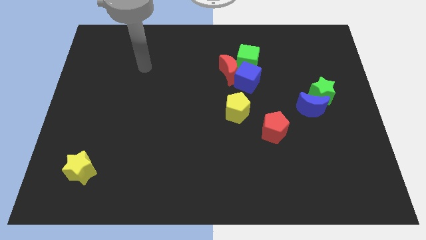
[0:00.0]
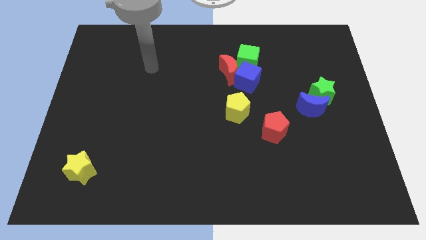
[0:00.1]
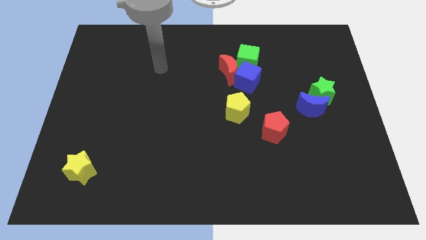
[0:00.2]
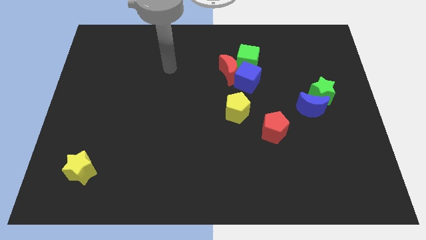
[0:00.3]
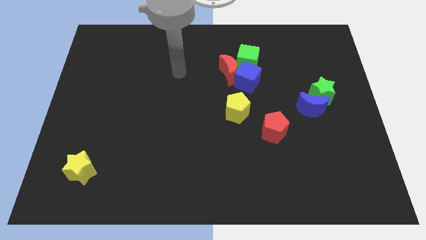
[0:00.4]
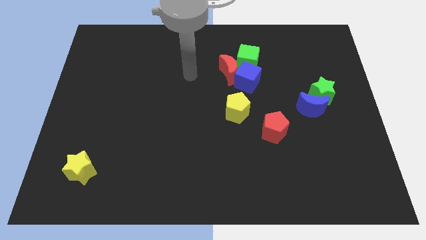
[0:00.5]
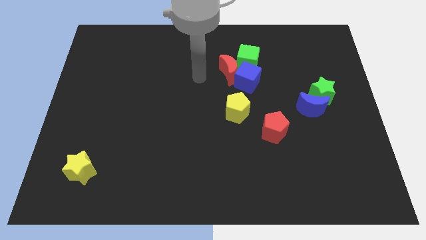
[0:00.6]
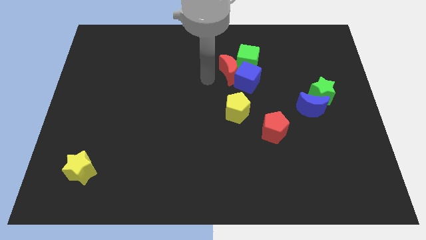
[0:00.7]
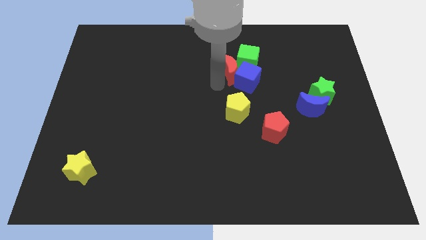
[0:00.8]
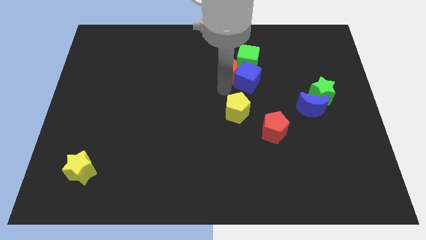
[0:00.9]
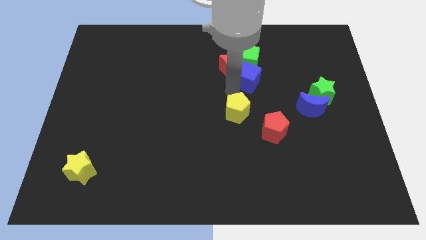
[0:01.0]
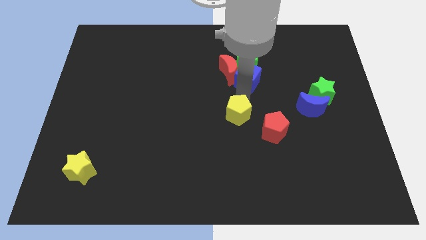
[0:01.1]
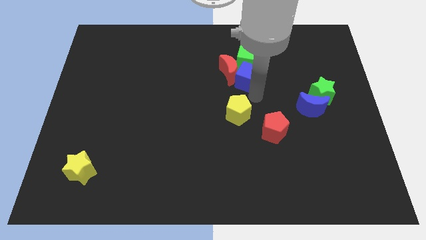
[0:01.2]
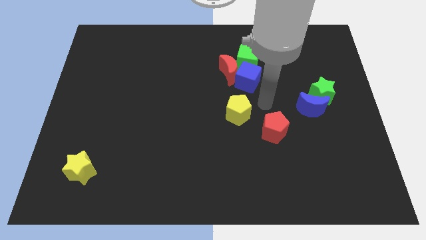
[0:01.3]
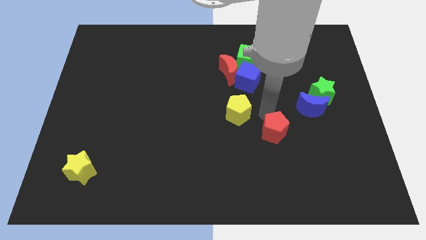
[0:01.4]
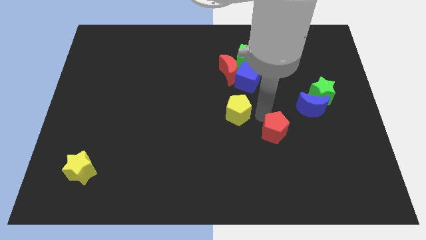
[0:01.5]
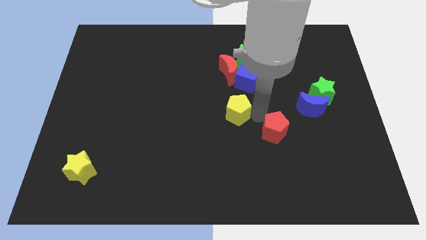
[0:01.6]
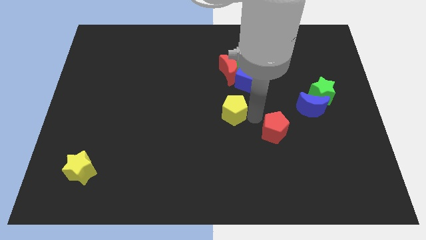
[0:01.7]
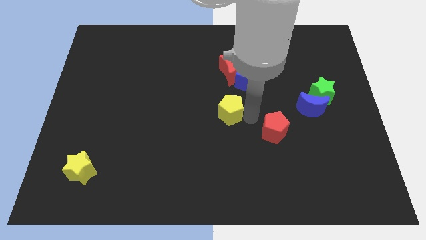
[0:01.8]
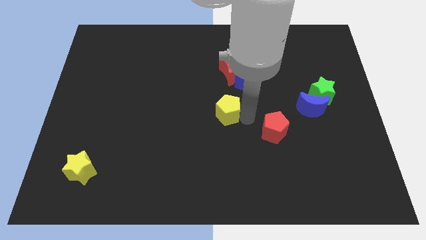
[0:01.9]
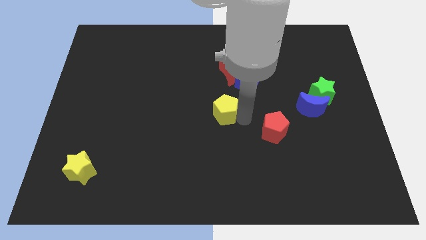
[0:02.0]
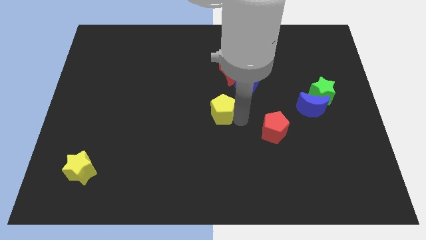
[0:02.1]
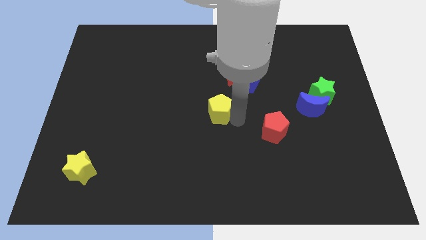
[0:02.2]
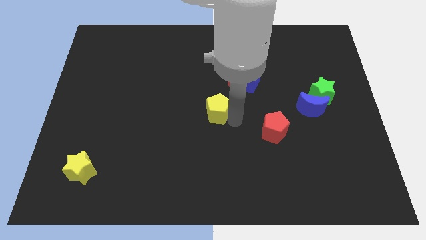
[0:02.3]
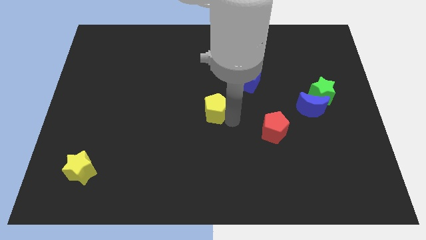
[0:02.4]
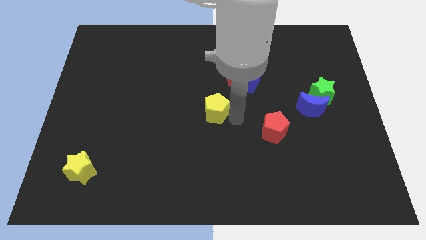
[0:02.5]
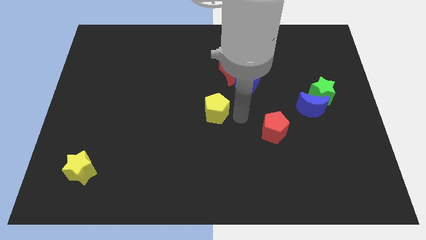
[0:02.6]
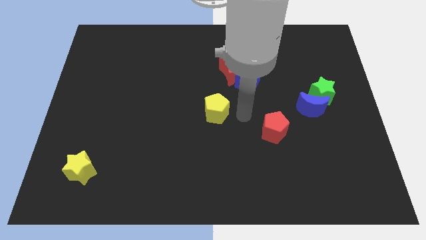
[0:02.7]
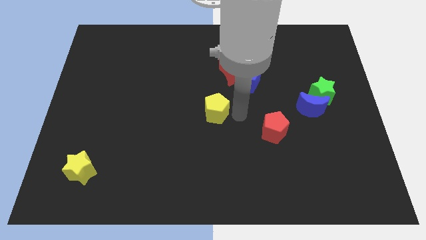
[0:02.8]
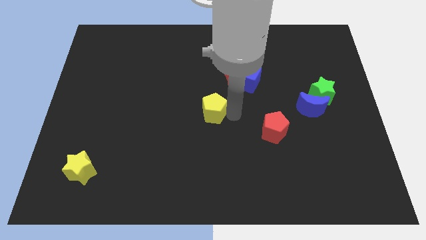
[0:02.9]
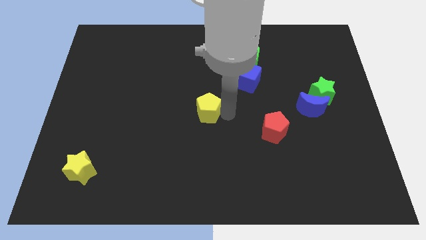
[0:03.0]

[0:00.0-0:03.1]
move the yellow pentagon to the left a little

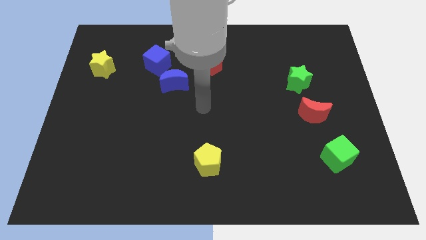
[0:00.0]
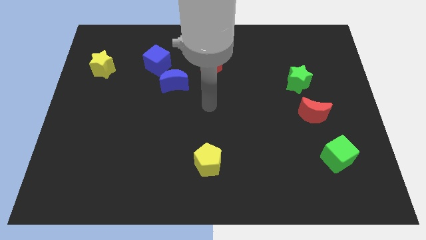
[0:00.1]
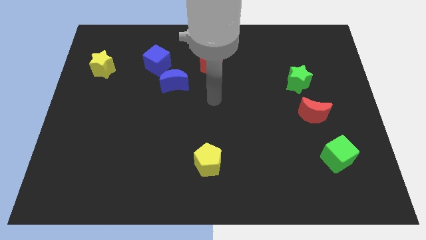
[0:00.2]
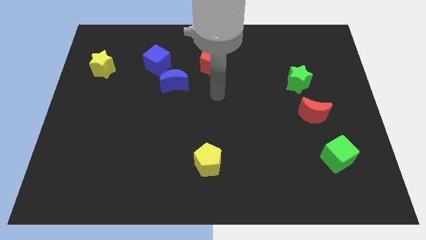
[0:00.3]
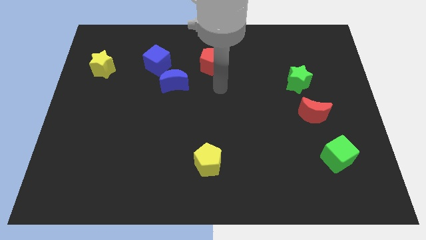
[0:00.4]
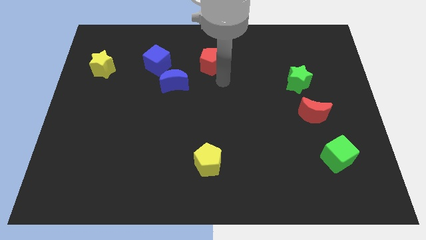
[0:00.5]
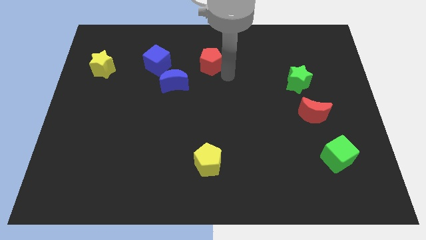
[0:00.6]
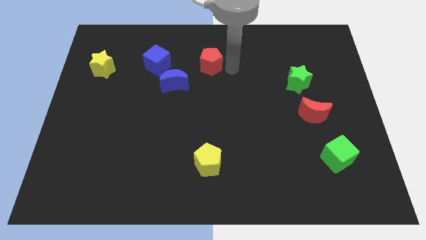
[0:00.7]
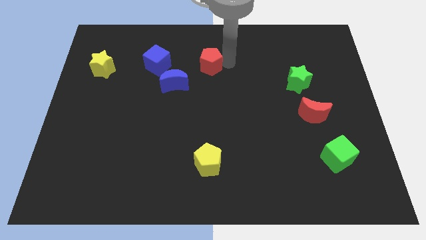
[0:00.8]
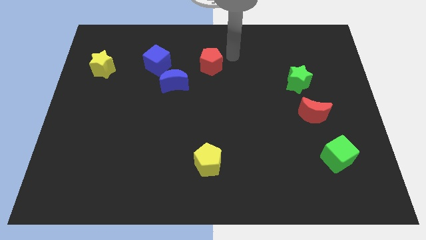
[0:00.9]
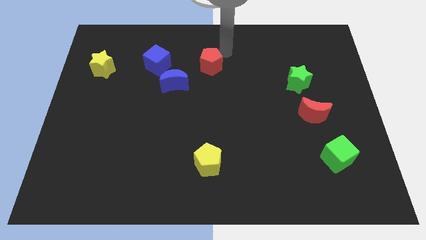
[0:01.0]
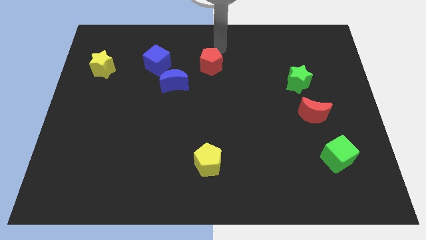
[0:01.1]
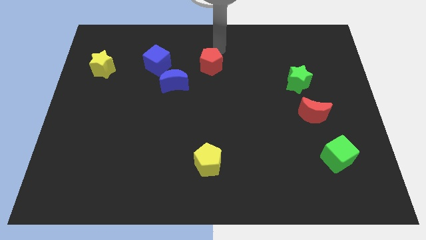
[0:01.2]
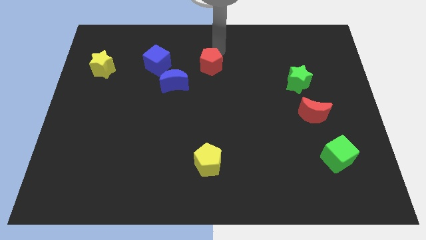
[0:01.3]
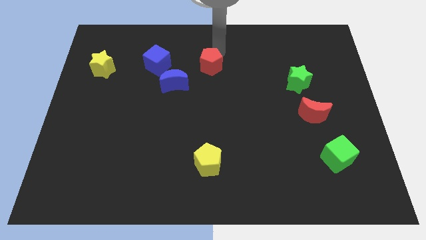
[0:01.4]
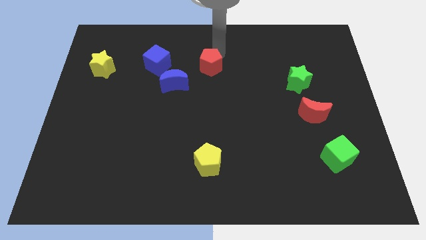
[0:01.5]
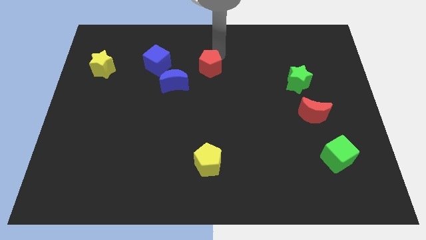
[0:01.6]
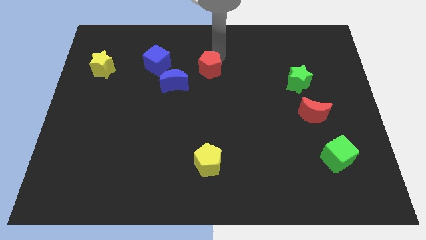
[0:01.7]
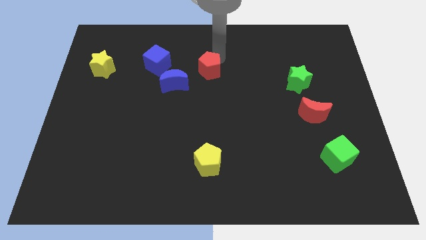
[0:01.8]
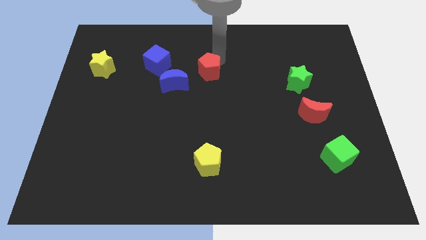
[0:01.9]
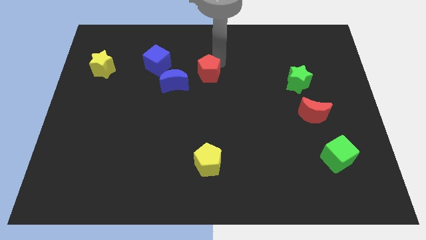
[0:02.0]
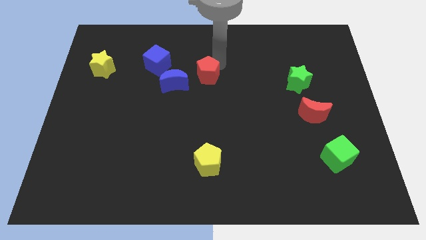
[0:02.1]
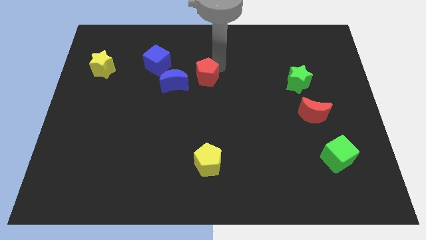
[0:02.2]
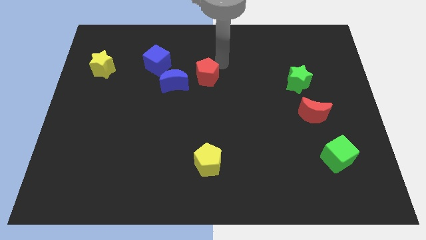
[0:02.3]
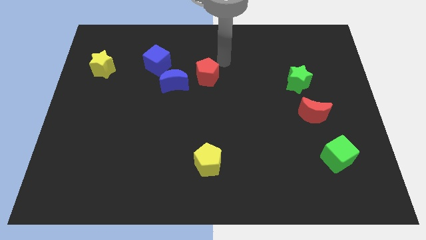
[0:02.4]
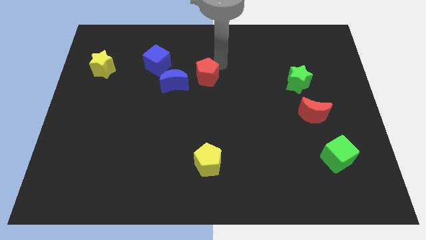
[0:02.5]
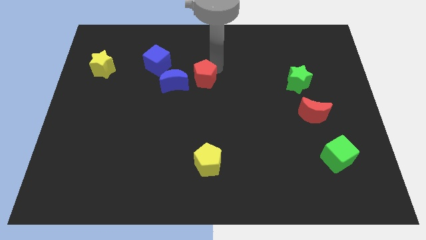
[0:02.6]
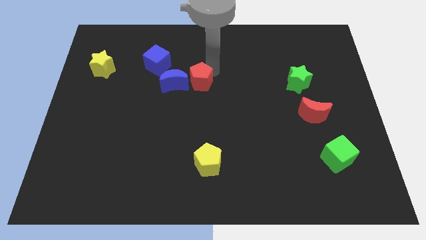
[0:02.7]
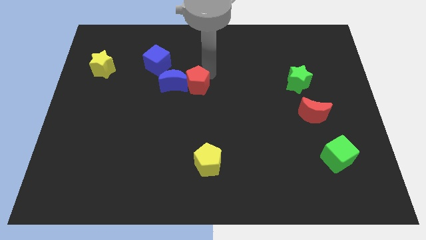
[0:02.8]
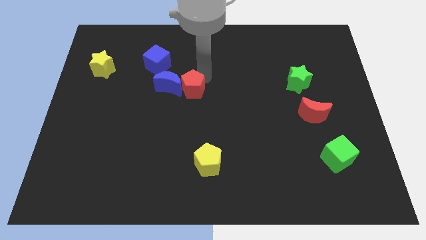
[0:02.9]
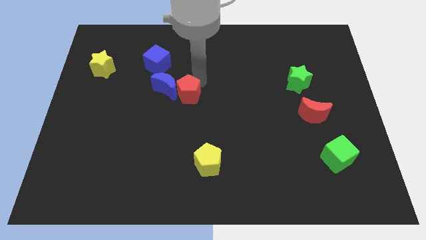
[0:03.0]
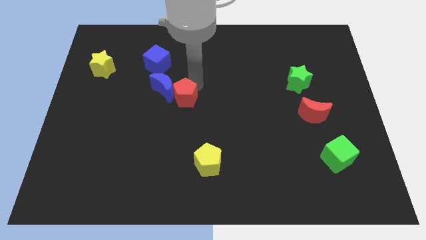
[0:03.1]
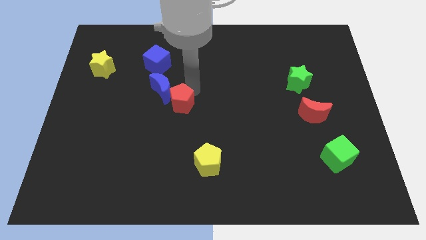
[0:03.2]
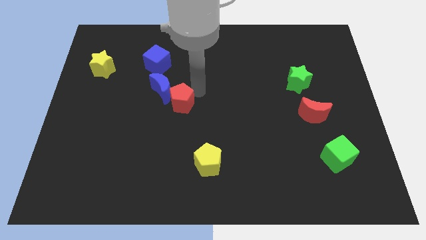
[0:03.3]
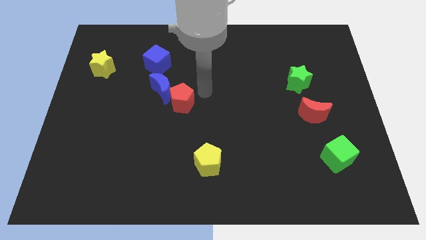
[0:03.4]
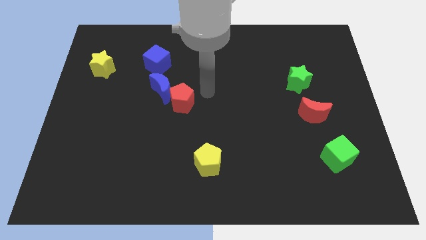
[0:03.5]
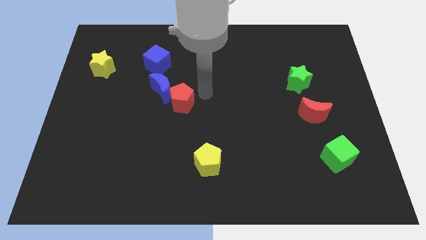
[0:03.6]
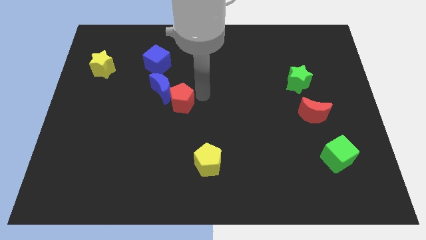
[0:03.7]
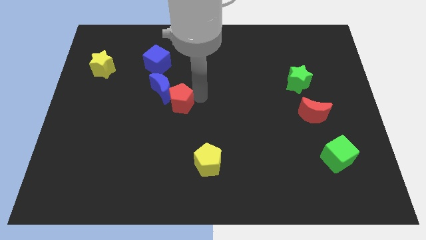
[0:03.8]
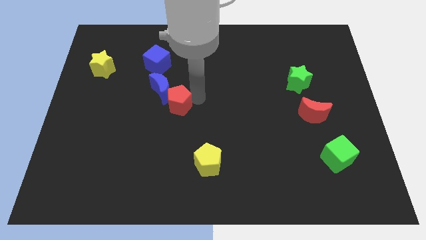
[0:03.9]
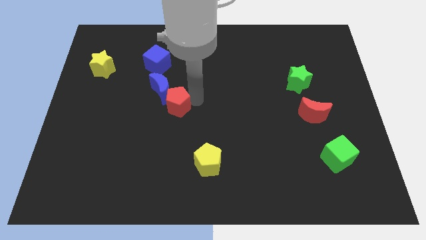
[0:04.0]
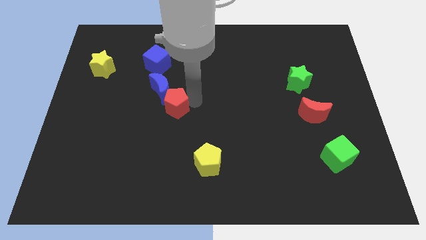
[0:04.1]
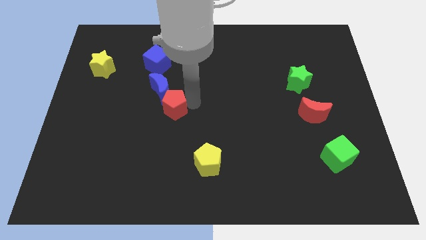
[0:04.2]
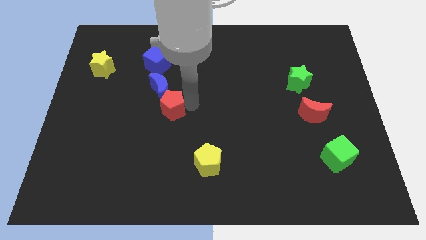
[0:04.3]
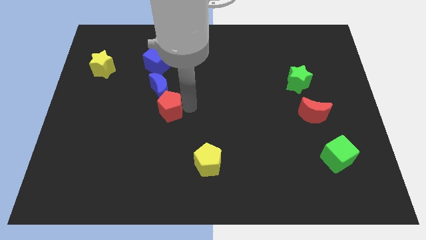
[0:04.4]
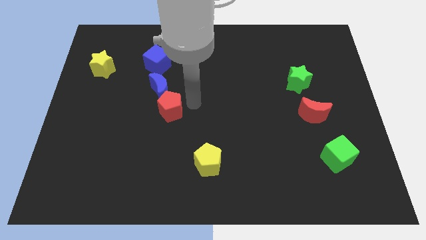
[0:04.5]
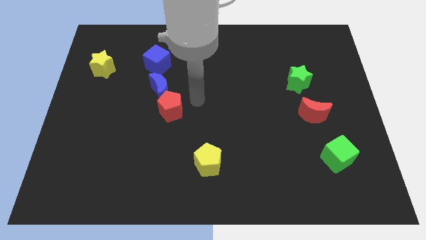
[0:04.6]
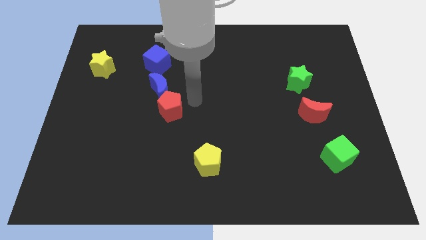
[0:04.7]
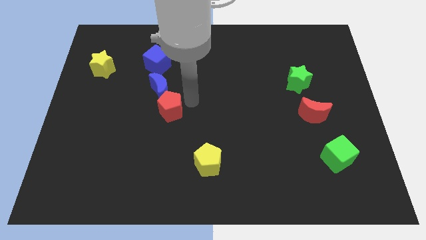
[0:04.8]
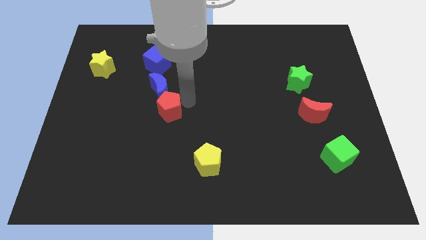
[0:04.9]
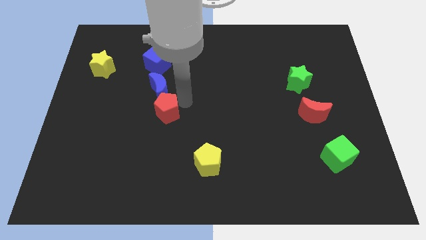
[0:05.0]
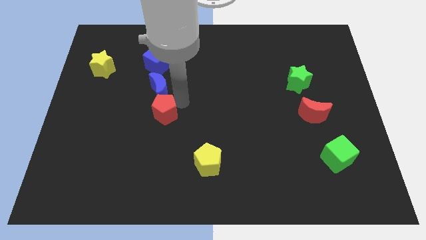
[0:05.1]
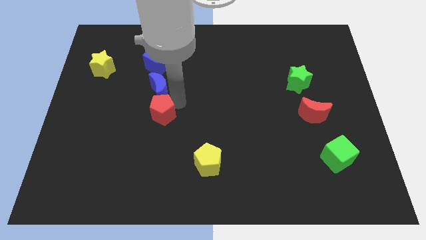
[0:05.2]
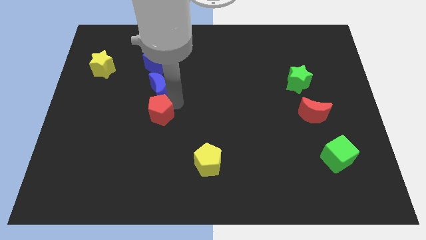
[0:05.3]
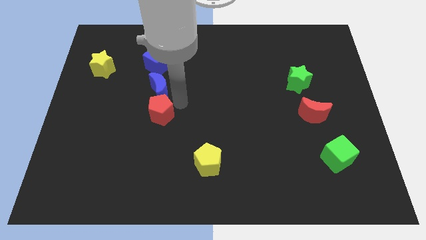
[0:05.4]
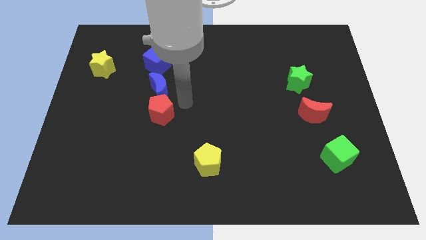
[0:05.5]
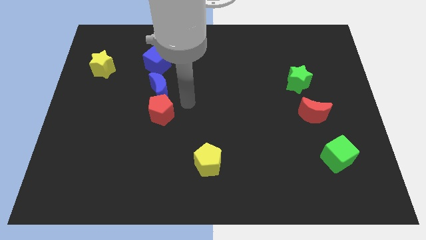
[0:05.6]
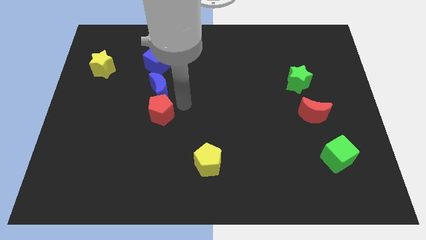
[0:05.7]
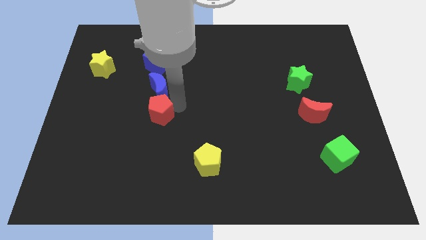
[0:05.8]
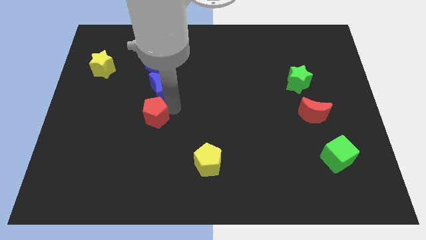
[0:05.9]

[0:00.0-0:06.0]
push the red pentagon downwards and then left
